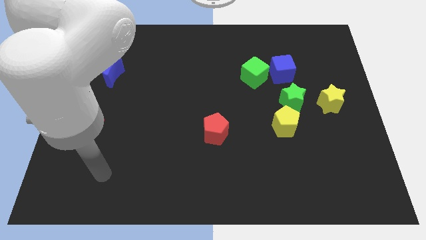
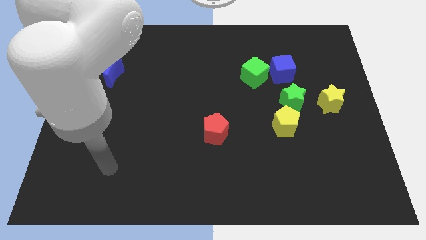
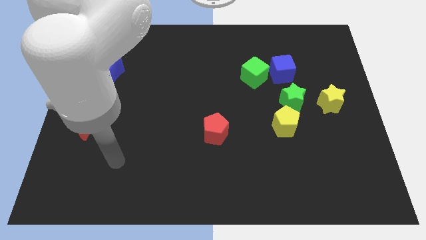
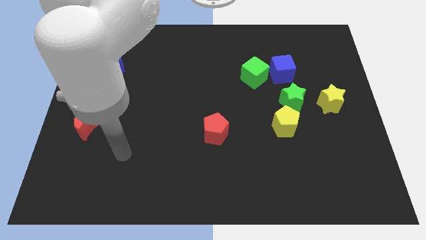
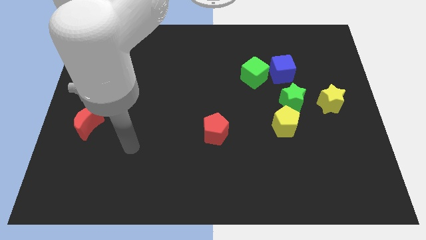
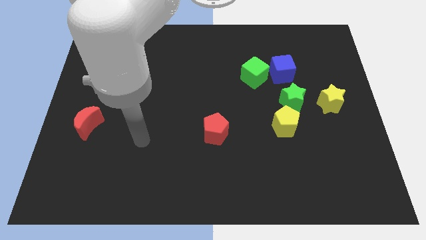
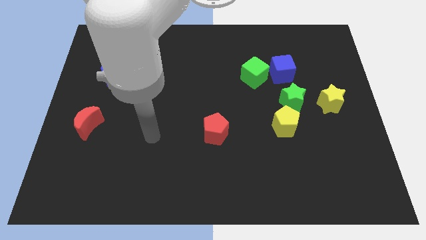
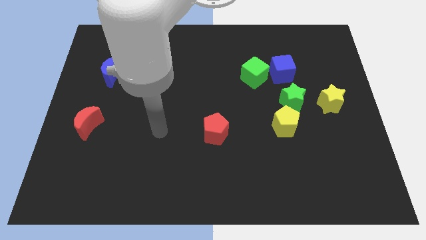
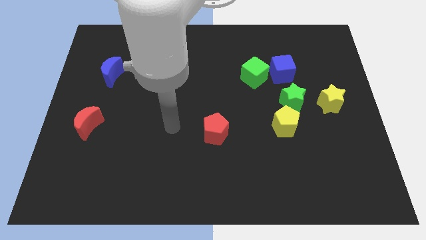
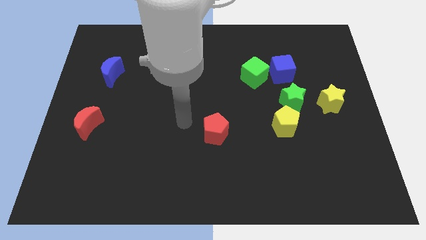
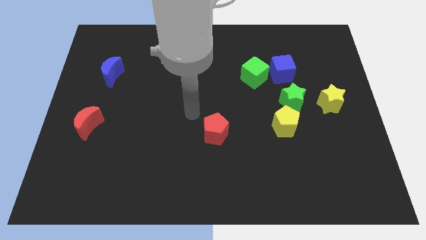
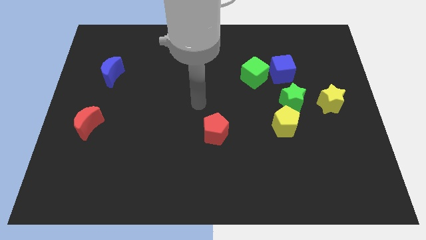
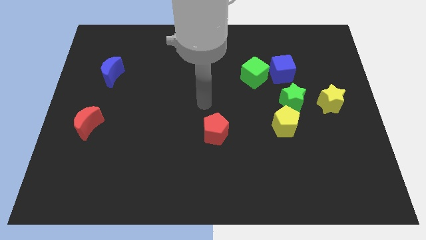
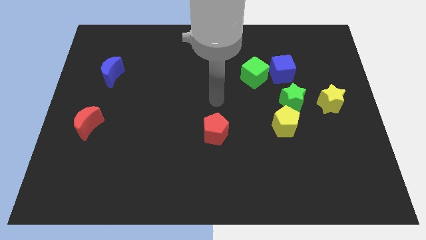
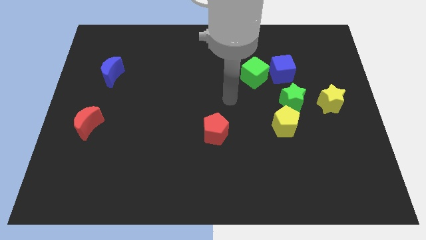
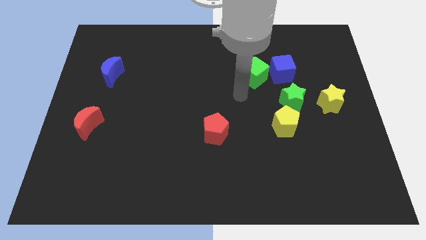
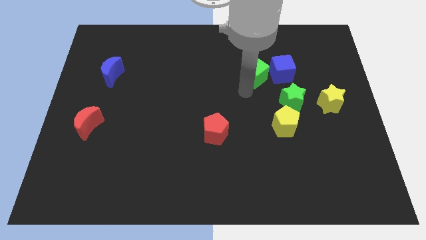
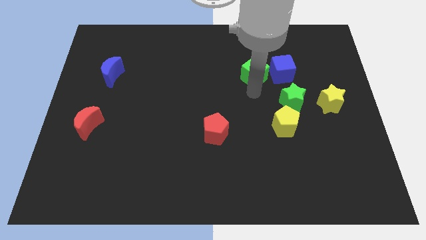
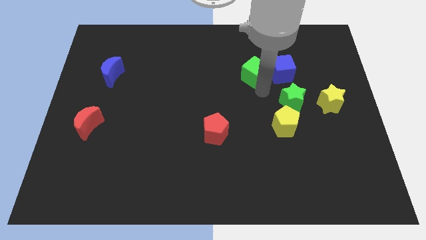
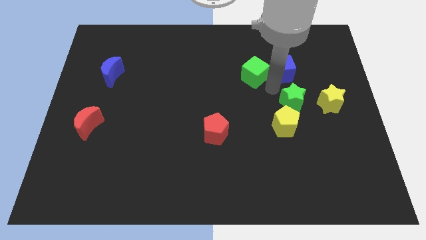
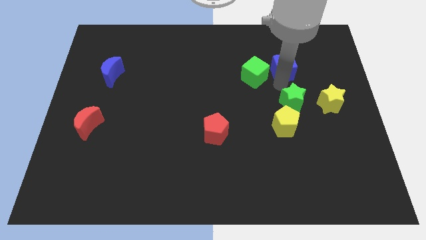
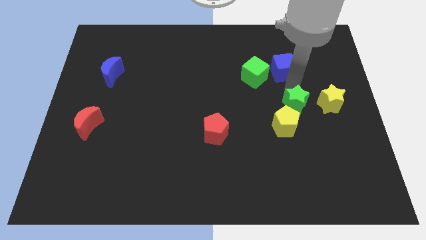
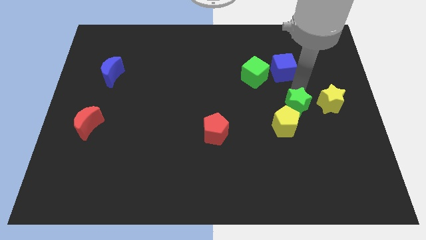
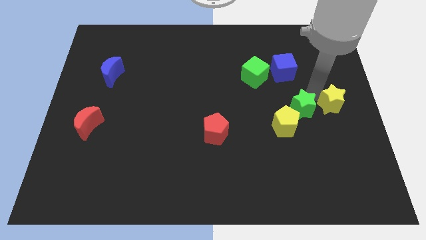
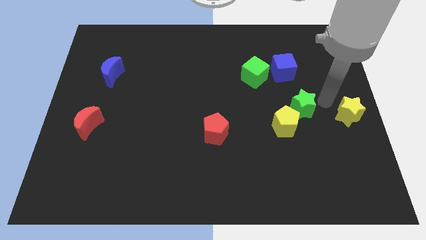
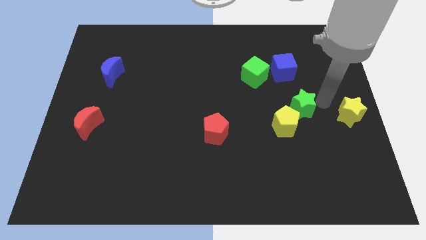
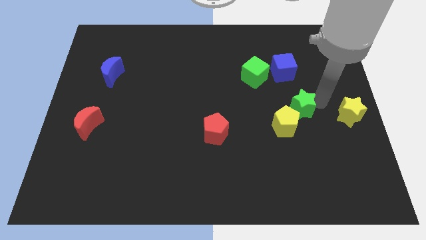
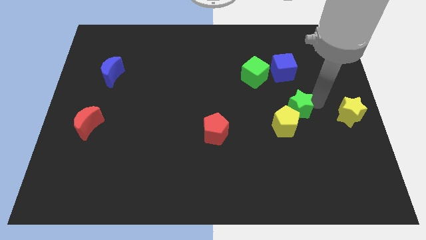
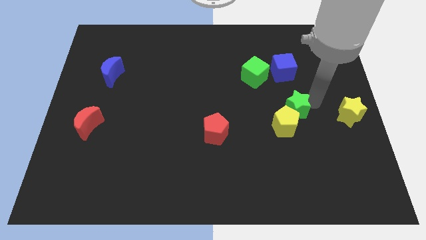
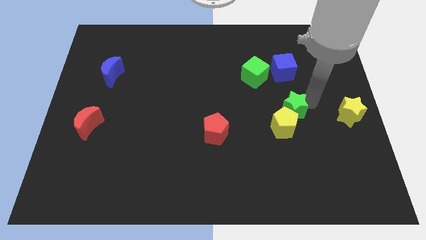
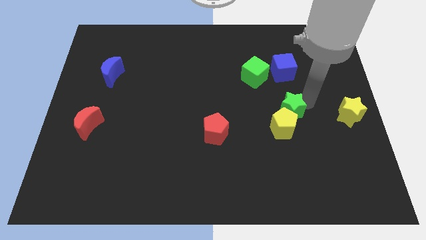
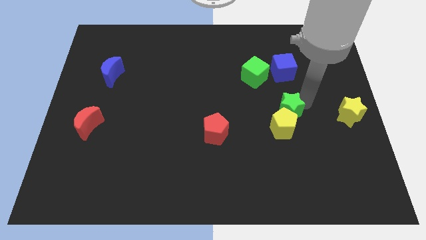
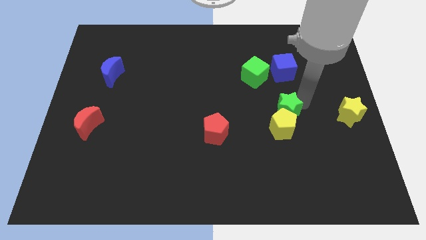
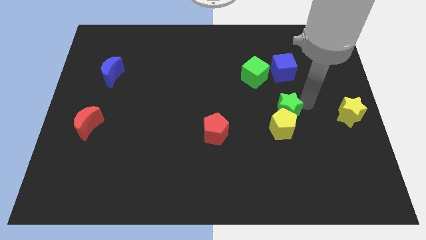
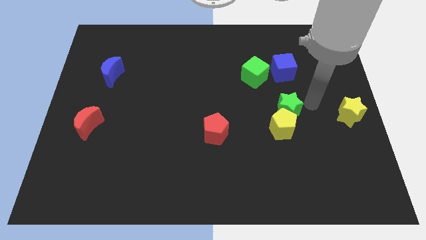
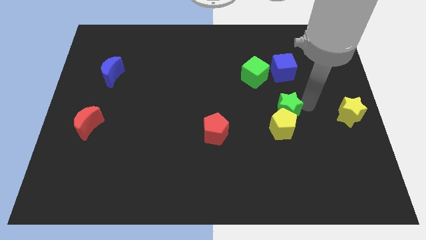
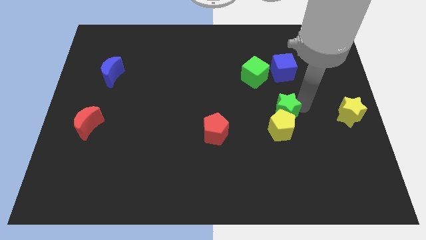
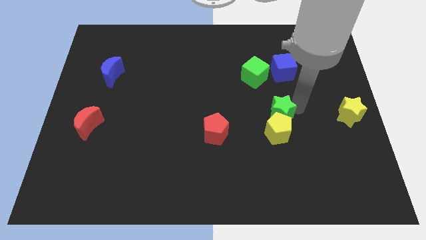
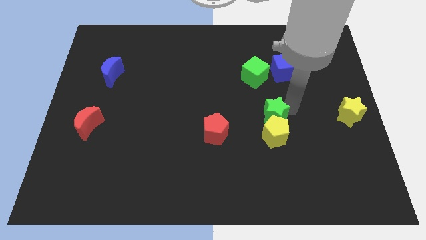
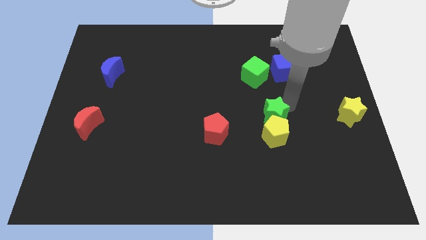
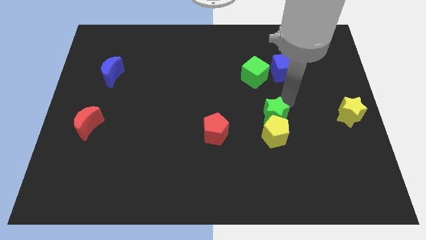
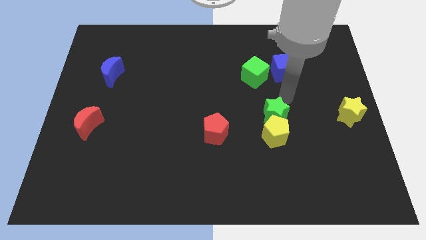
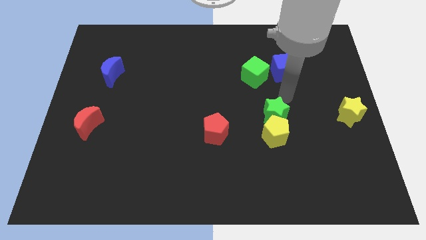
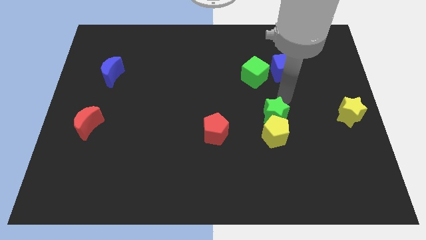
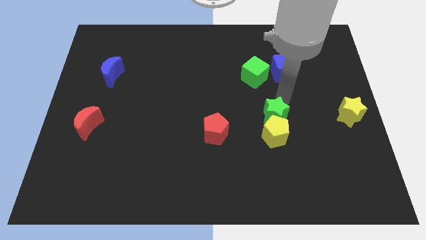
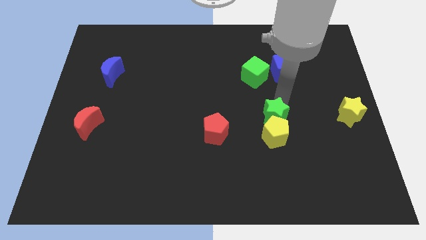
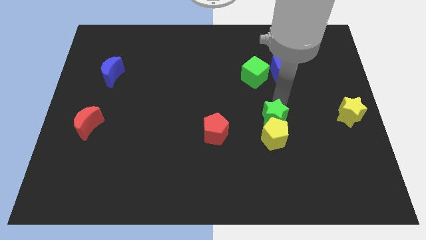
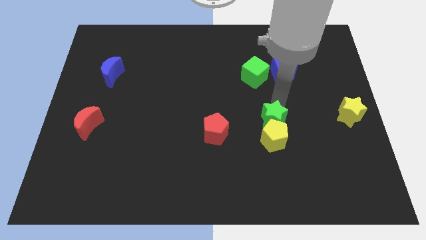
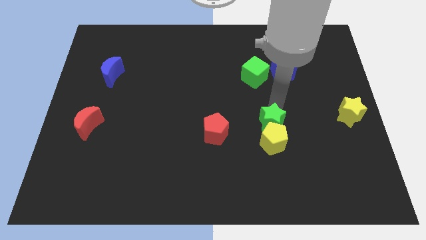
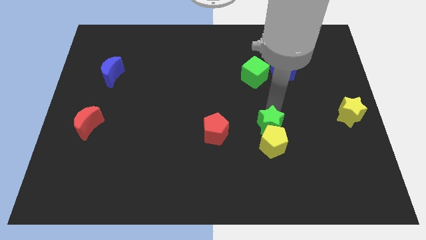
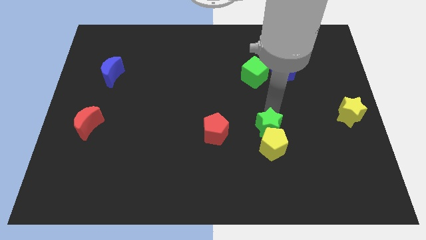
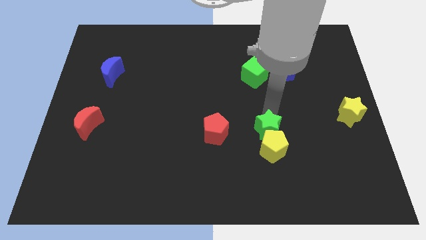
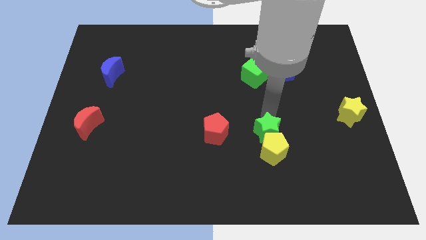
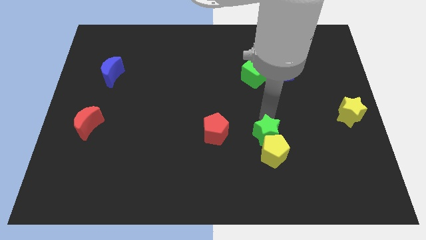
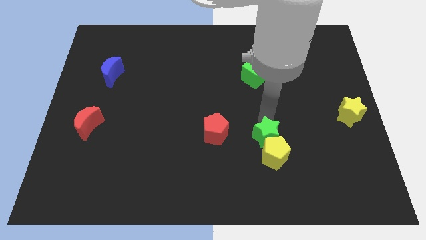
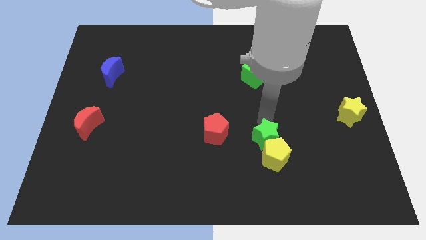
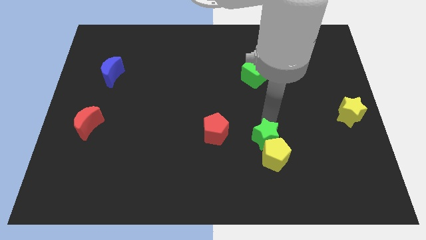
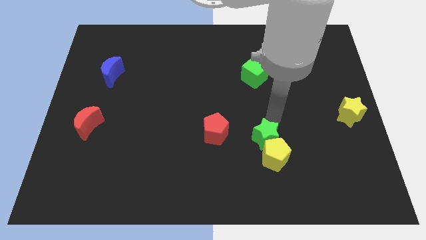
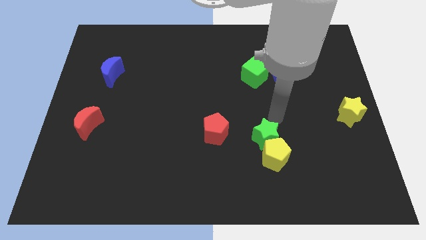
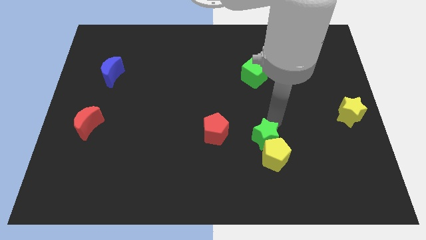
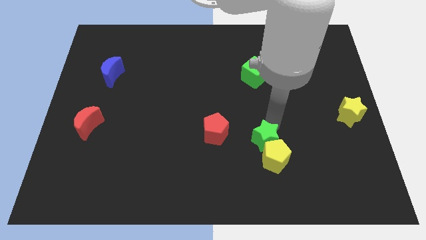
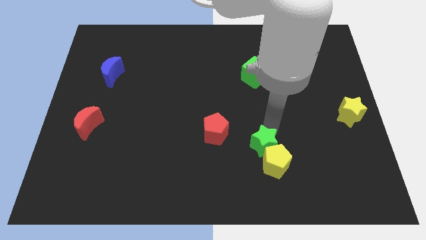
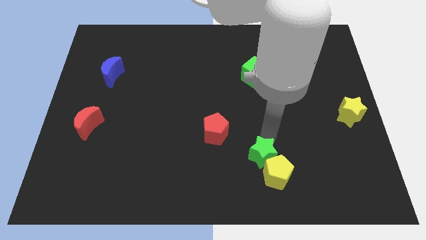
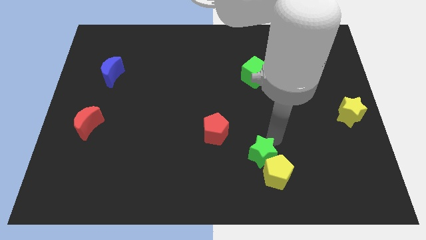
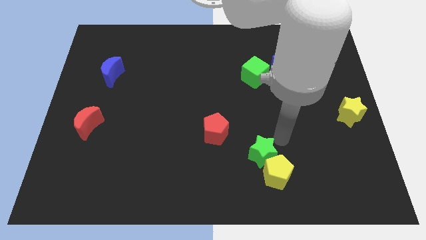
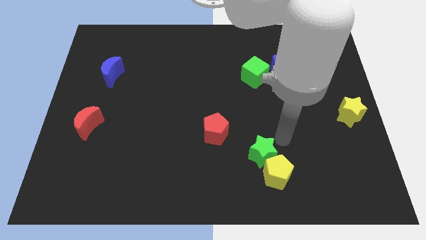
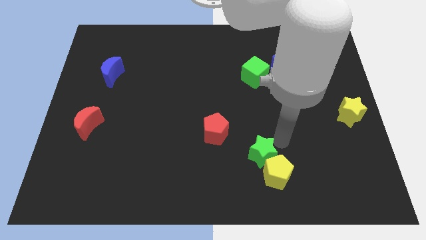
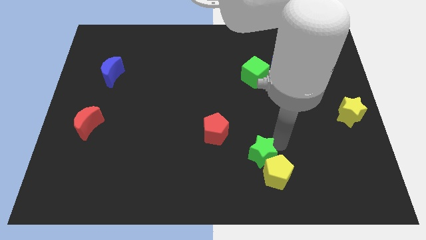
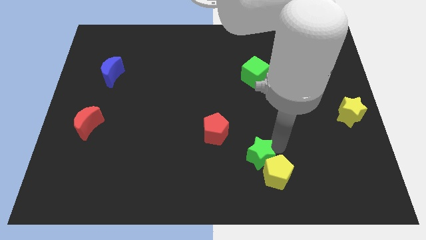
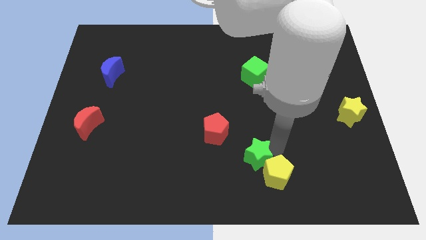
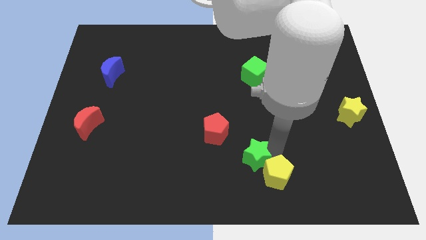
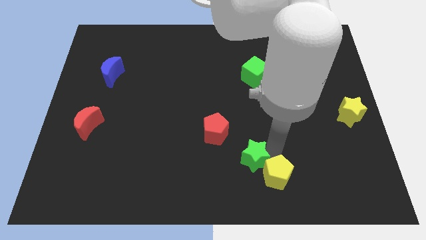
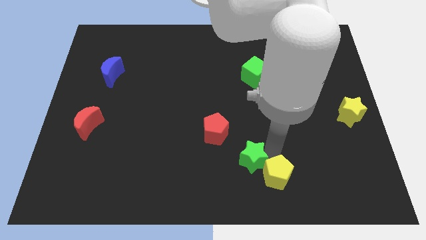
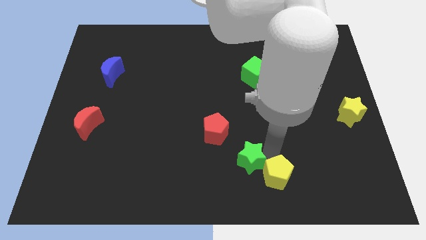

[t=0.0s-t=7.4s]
push the green star to the bottom side
